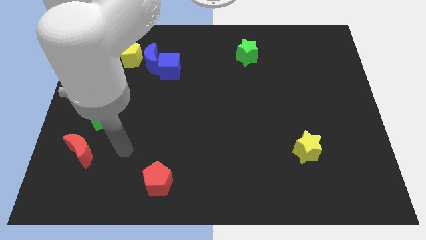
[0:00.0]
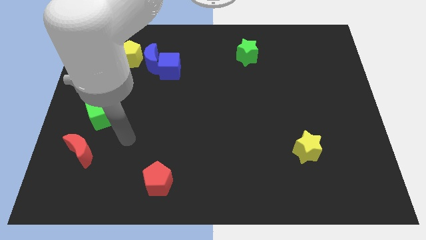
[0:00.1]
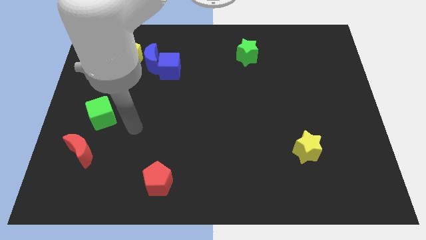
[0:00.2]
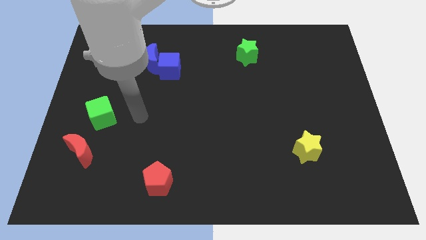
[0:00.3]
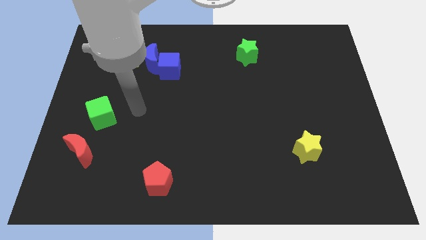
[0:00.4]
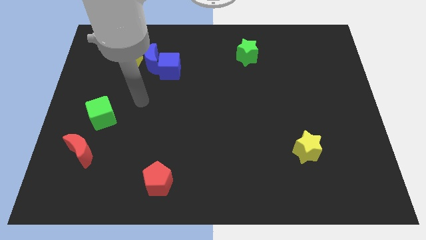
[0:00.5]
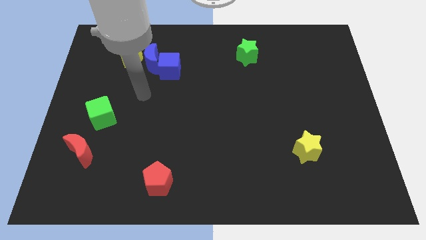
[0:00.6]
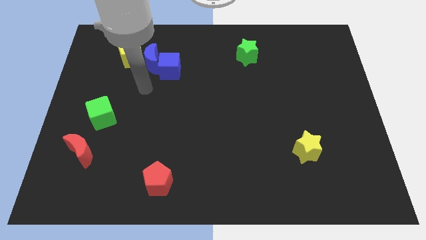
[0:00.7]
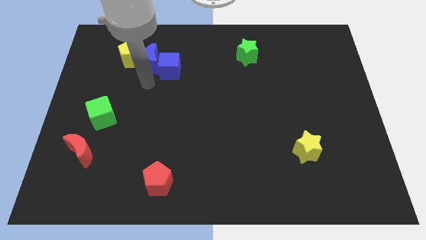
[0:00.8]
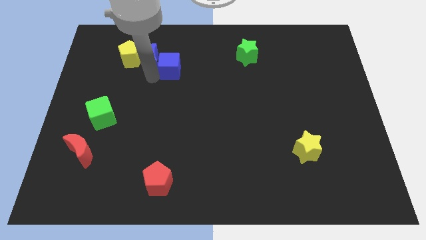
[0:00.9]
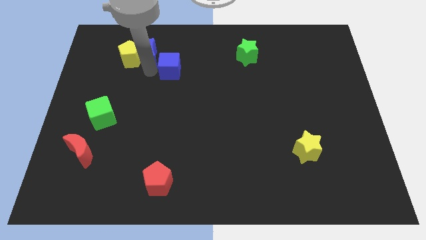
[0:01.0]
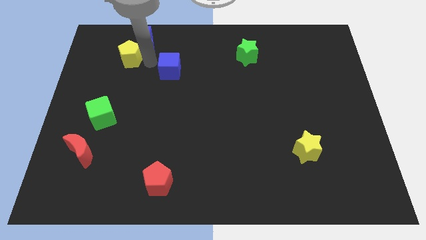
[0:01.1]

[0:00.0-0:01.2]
separate the blue cube from the blue moon

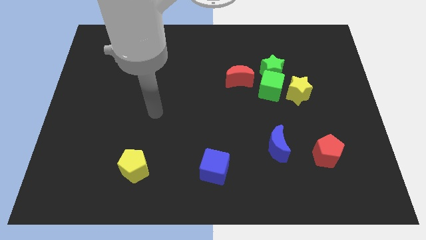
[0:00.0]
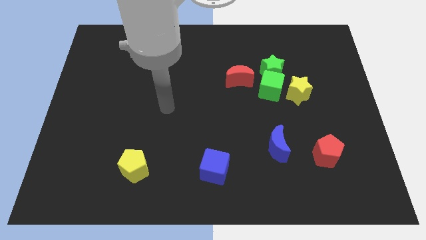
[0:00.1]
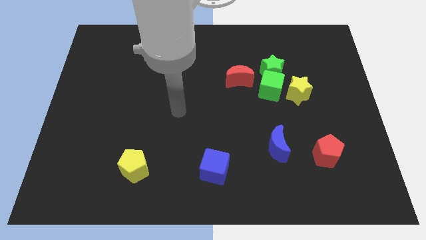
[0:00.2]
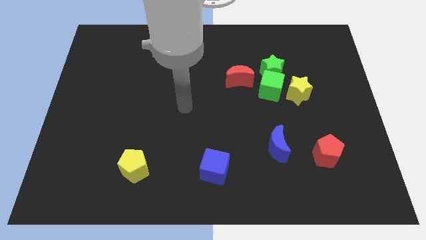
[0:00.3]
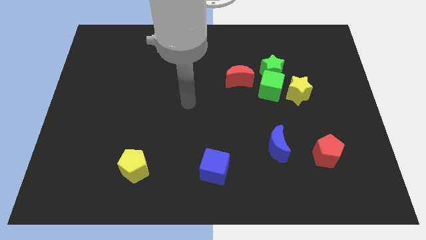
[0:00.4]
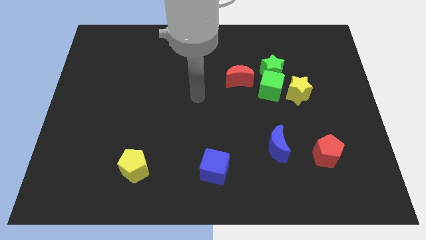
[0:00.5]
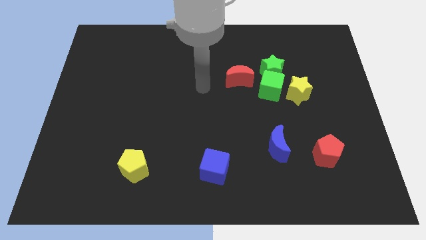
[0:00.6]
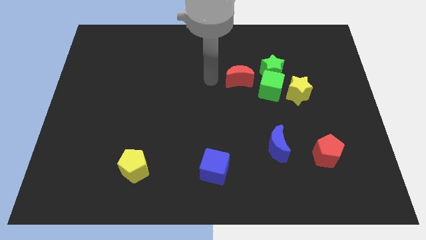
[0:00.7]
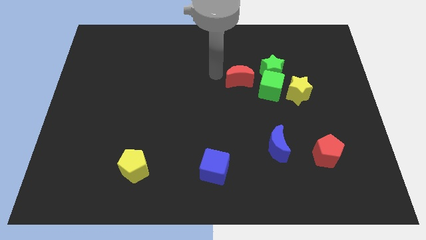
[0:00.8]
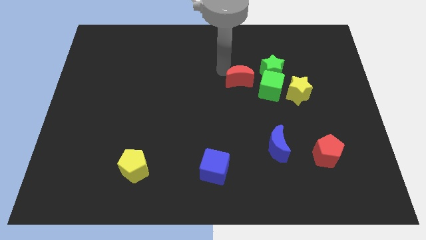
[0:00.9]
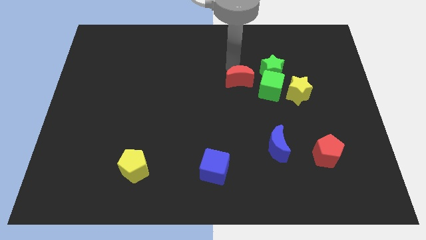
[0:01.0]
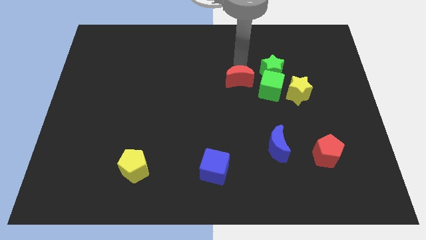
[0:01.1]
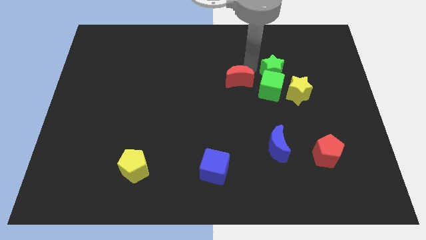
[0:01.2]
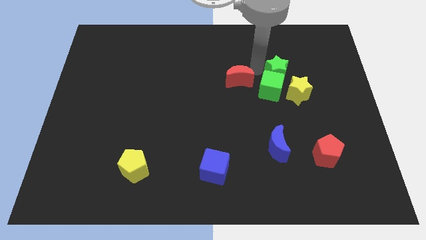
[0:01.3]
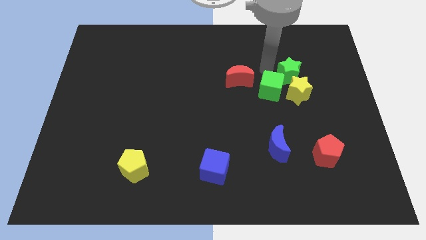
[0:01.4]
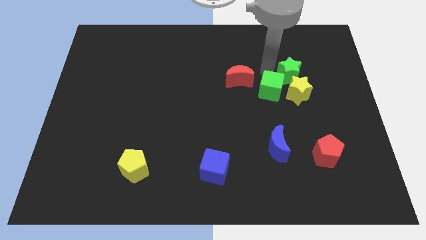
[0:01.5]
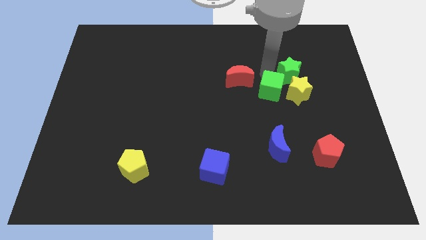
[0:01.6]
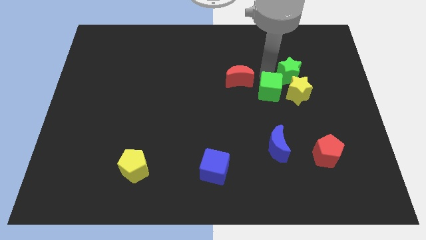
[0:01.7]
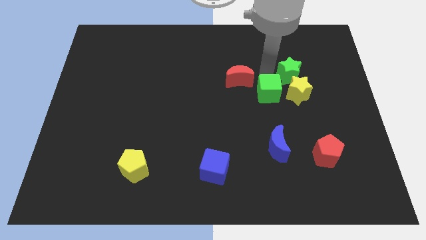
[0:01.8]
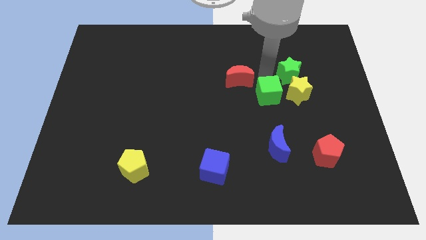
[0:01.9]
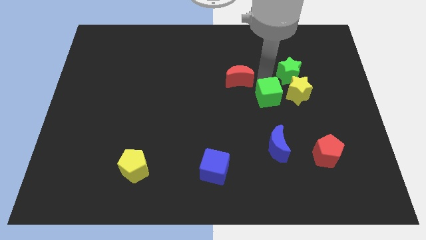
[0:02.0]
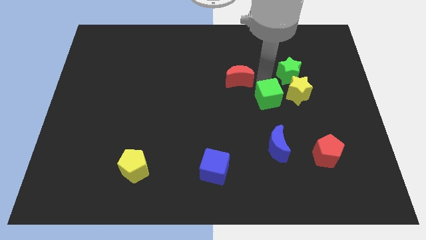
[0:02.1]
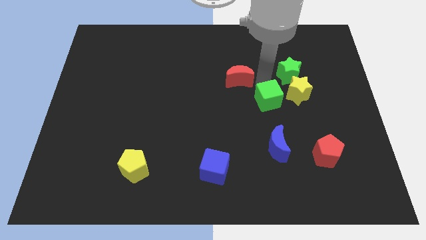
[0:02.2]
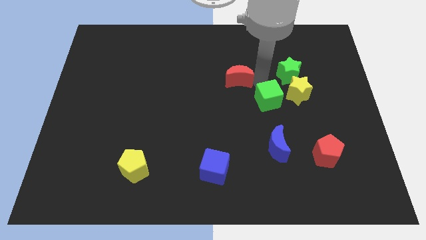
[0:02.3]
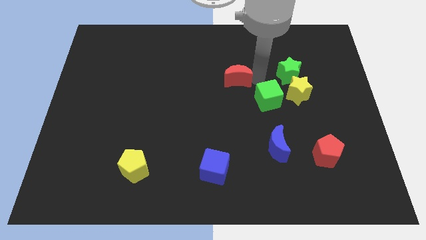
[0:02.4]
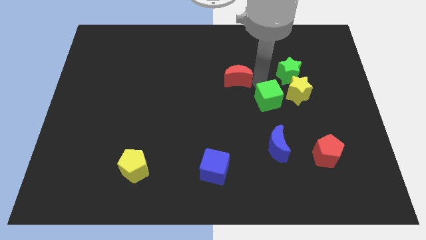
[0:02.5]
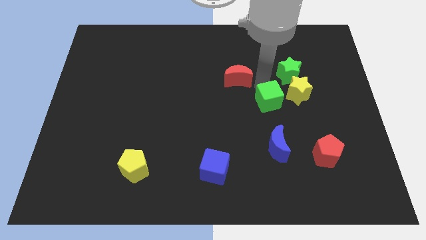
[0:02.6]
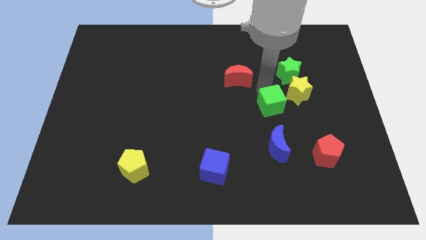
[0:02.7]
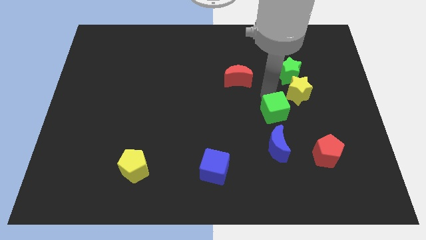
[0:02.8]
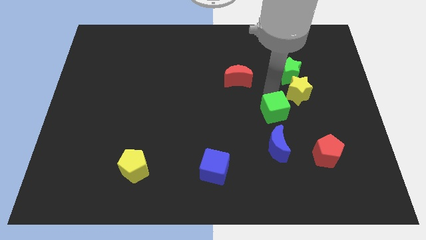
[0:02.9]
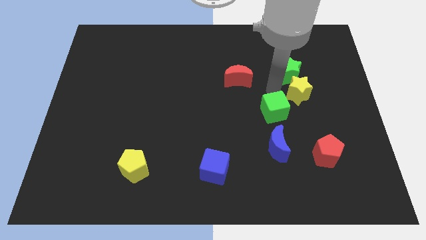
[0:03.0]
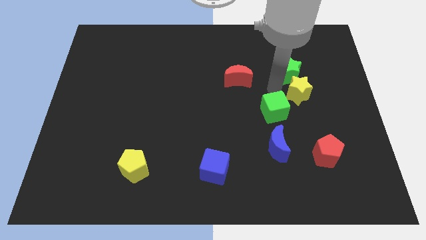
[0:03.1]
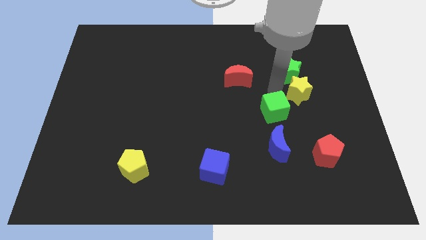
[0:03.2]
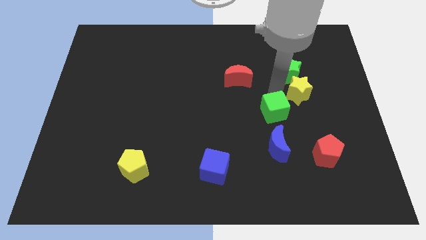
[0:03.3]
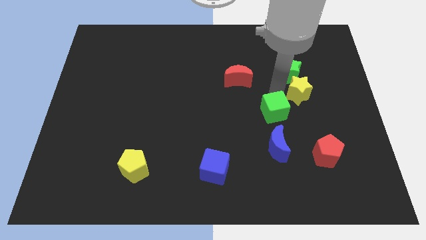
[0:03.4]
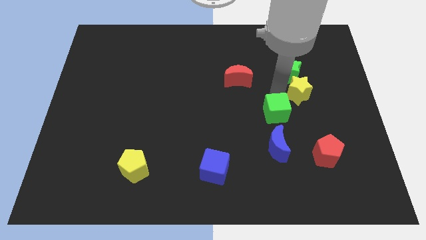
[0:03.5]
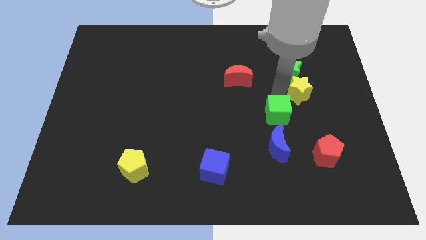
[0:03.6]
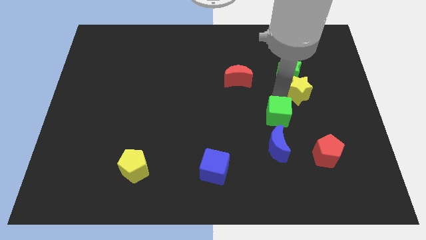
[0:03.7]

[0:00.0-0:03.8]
pull the green cube apart from the green star, yellow star, and red moon

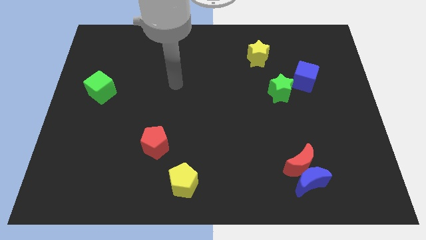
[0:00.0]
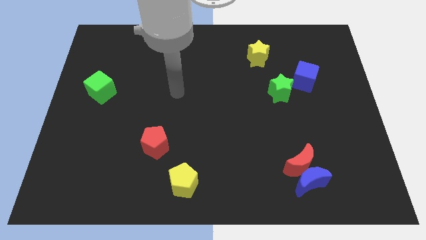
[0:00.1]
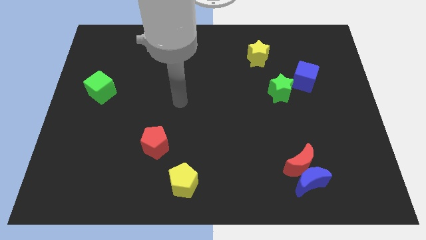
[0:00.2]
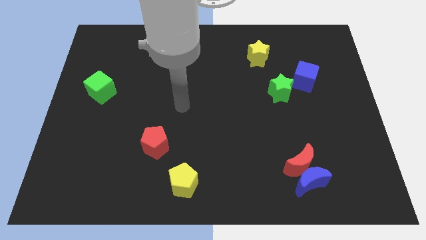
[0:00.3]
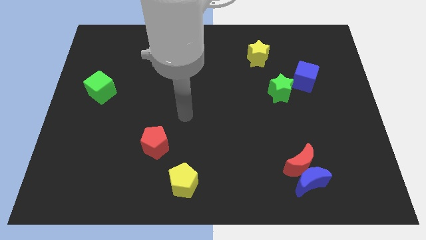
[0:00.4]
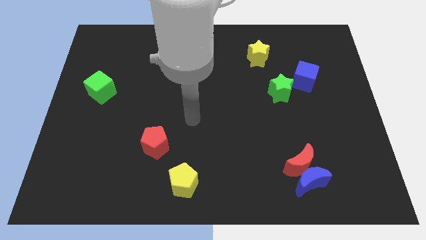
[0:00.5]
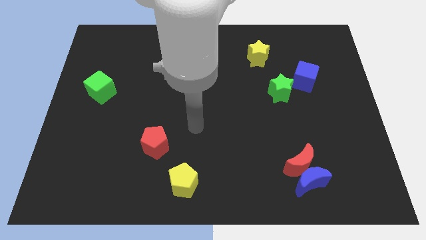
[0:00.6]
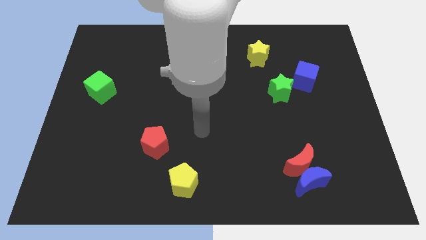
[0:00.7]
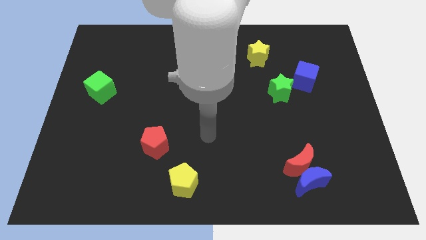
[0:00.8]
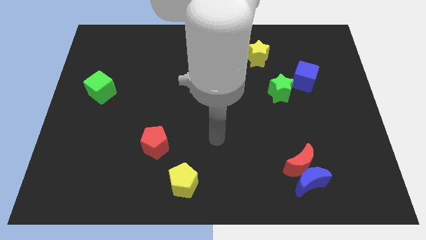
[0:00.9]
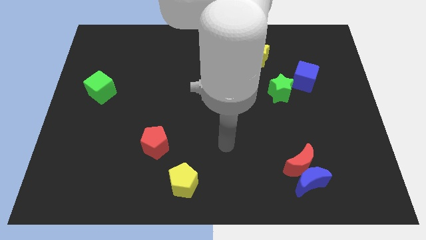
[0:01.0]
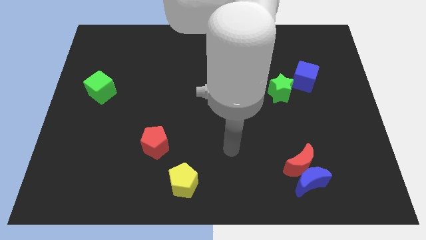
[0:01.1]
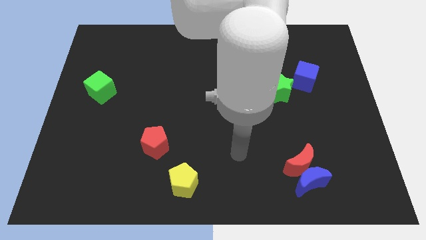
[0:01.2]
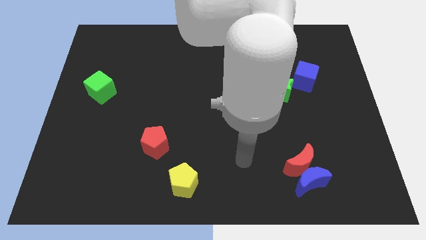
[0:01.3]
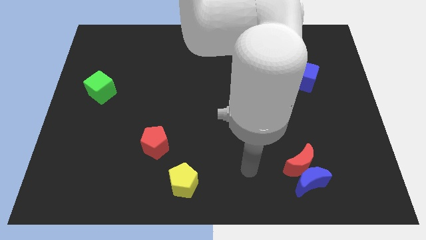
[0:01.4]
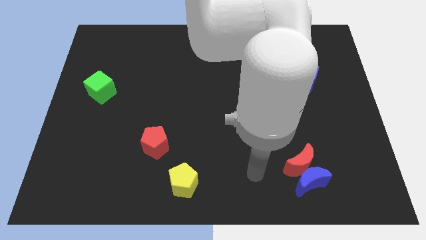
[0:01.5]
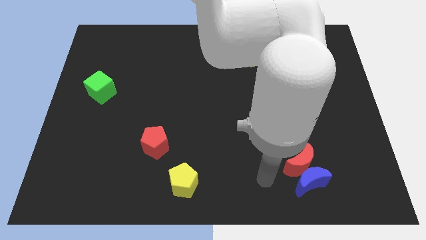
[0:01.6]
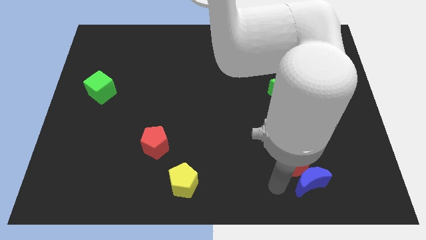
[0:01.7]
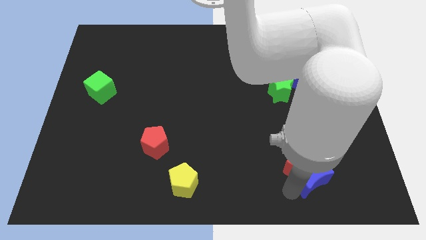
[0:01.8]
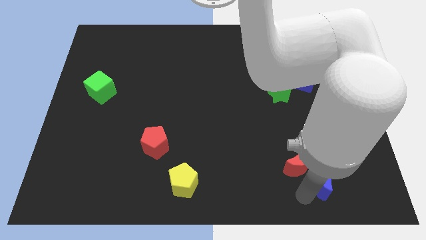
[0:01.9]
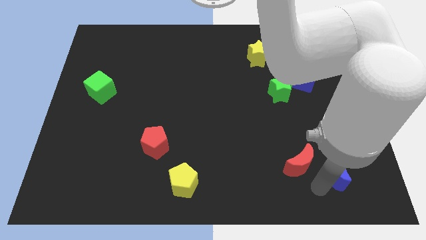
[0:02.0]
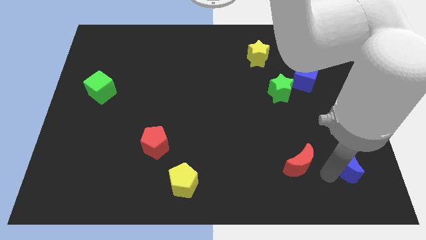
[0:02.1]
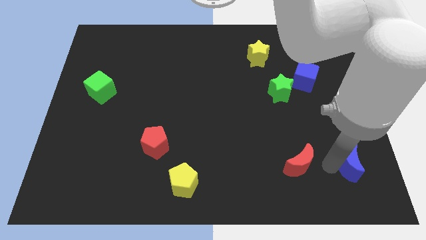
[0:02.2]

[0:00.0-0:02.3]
separate the red moon from the blue moon

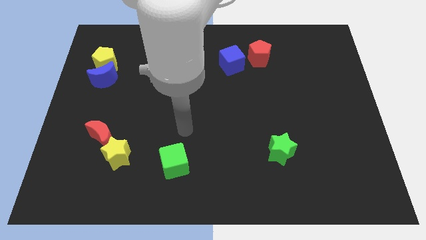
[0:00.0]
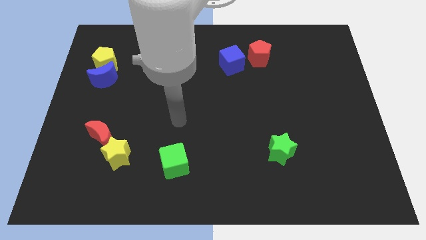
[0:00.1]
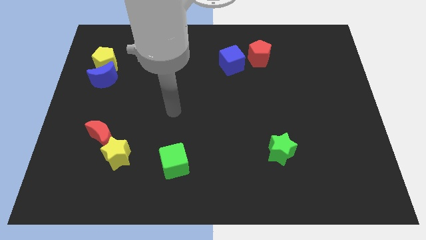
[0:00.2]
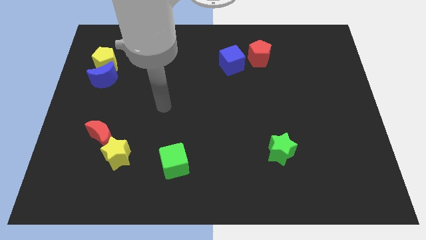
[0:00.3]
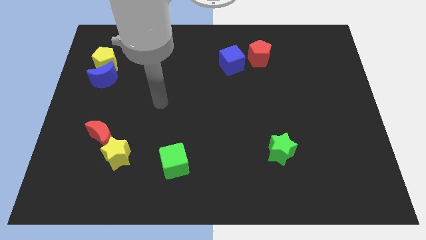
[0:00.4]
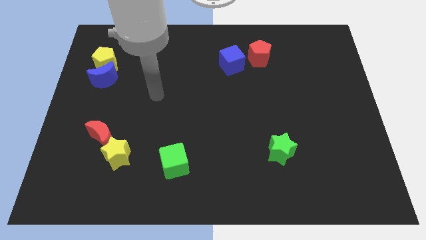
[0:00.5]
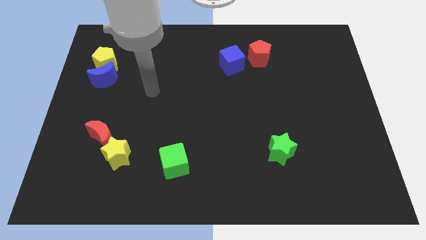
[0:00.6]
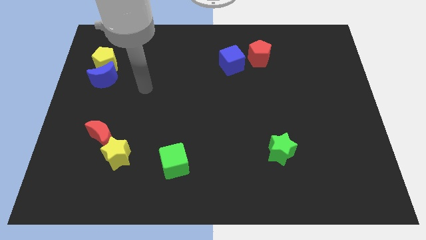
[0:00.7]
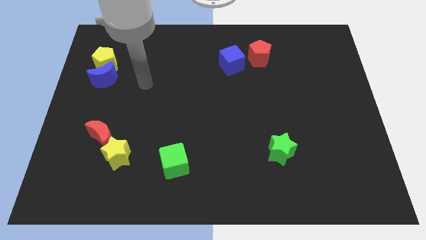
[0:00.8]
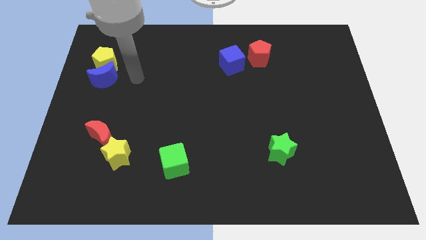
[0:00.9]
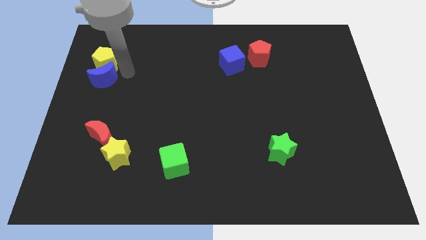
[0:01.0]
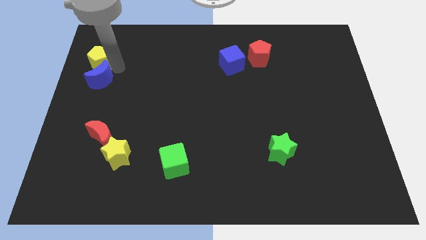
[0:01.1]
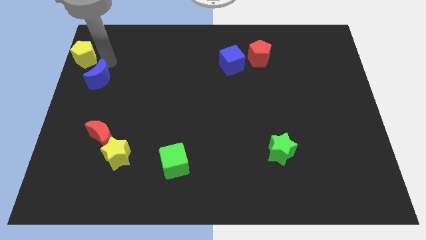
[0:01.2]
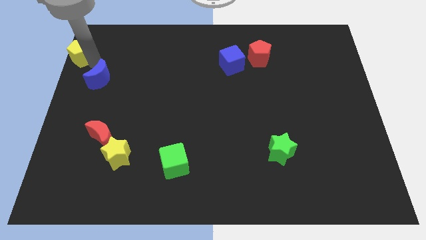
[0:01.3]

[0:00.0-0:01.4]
pull the blue moon apart from the yellow pentagon

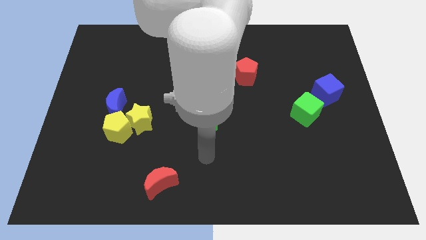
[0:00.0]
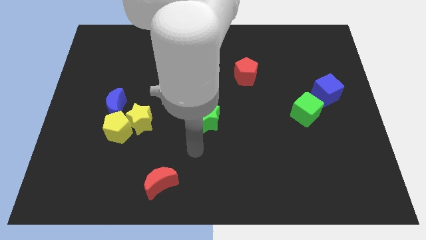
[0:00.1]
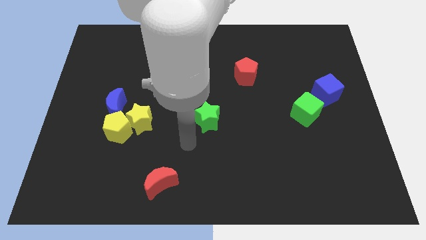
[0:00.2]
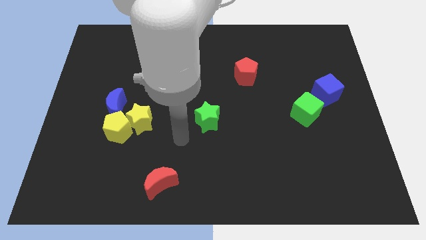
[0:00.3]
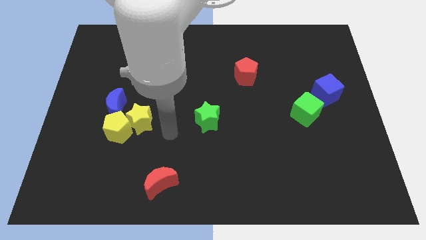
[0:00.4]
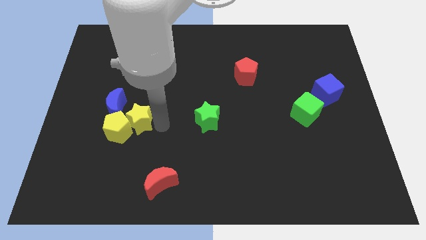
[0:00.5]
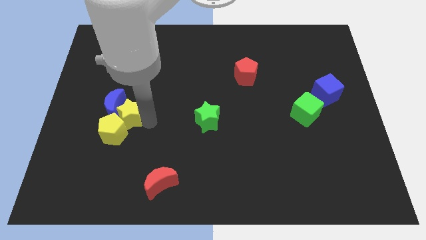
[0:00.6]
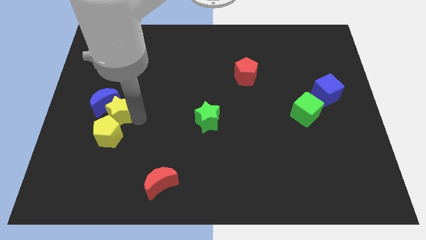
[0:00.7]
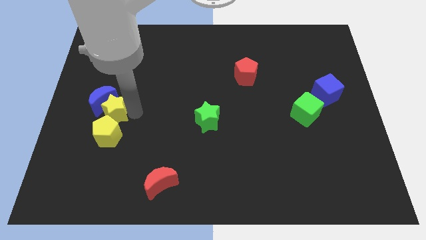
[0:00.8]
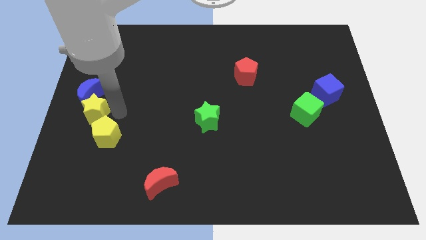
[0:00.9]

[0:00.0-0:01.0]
separate the yellow pentagon from the yellow star and blue moon
